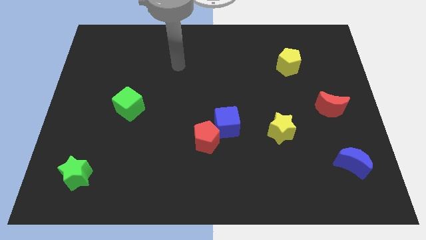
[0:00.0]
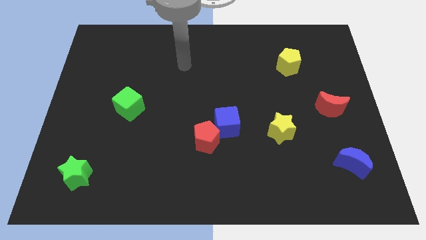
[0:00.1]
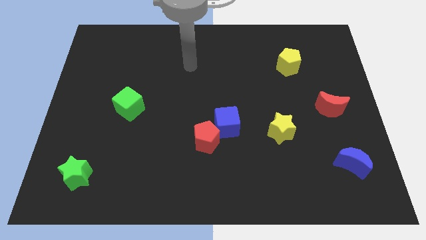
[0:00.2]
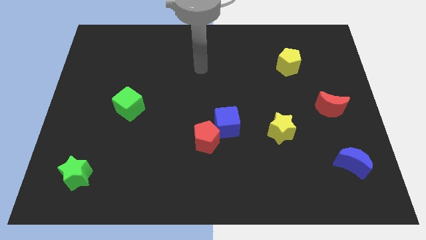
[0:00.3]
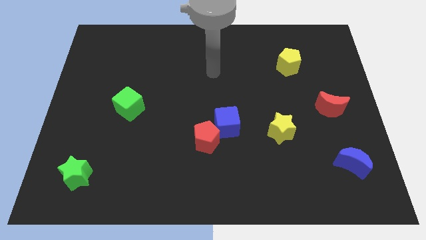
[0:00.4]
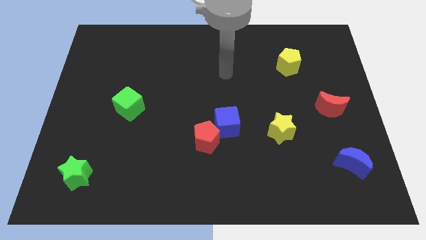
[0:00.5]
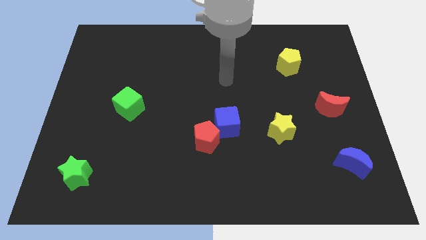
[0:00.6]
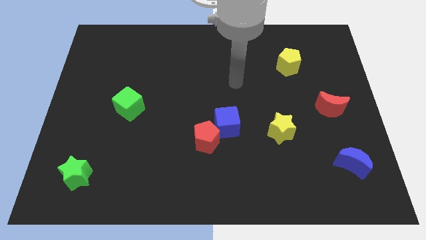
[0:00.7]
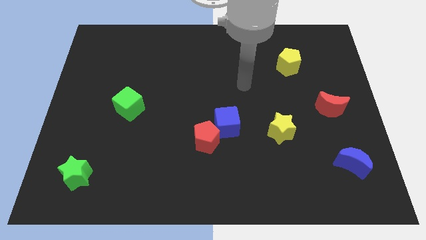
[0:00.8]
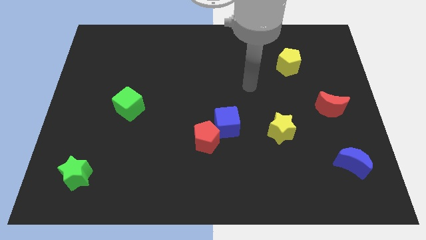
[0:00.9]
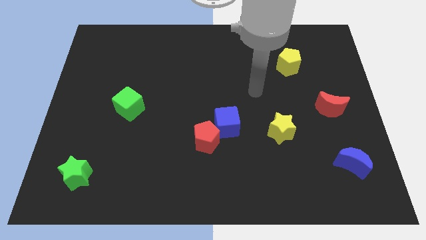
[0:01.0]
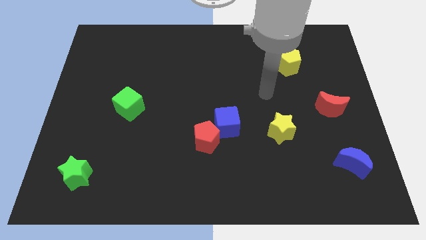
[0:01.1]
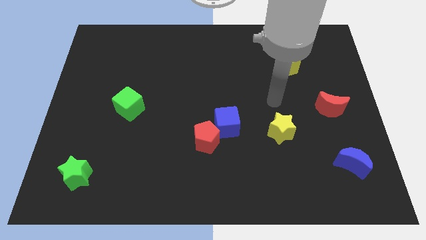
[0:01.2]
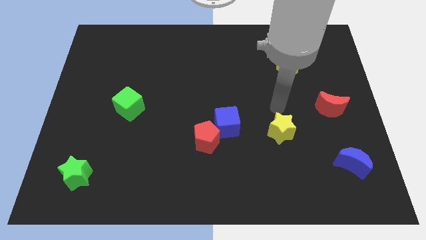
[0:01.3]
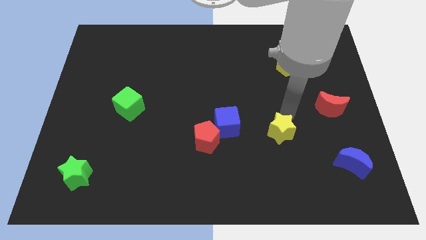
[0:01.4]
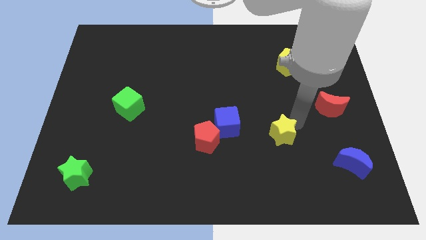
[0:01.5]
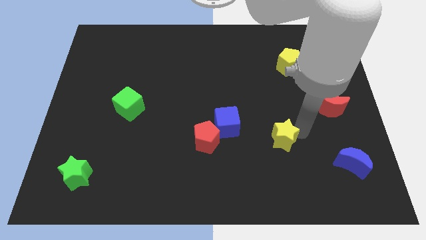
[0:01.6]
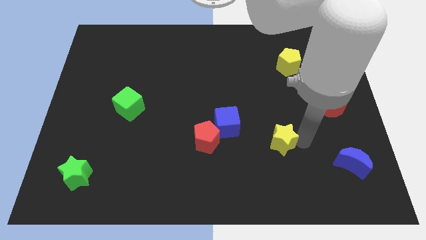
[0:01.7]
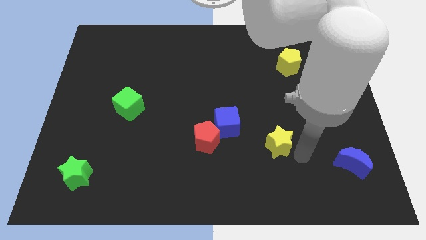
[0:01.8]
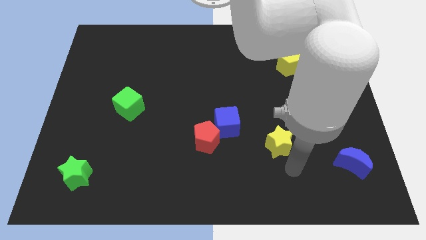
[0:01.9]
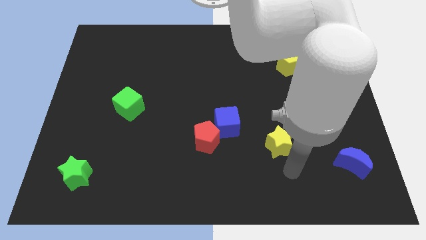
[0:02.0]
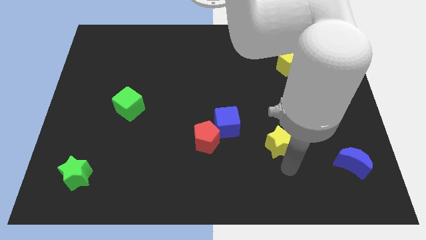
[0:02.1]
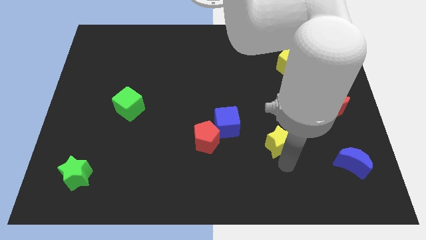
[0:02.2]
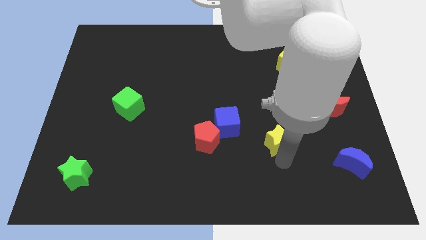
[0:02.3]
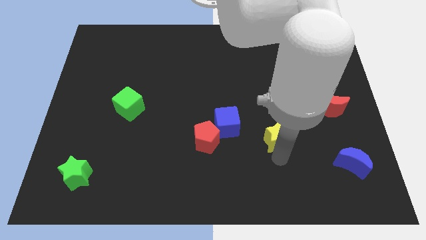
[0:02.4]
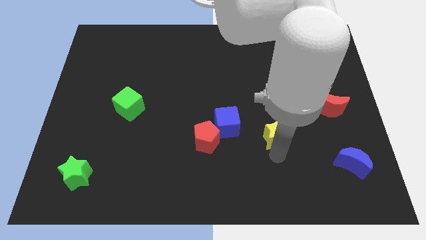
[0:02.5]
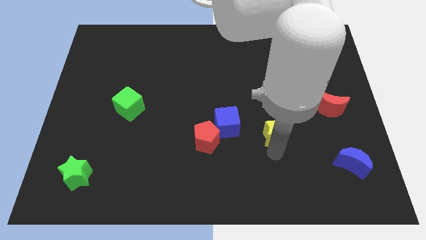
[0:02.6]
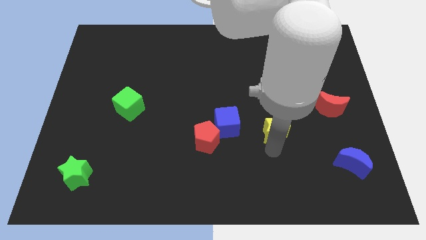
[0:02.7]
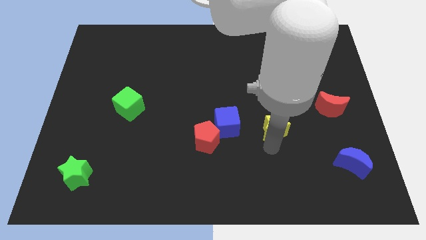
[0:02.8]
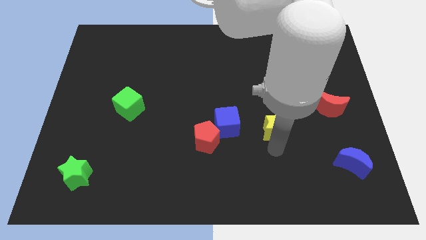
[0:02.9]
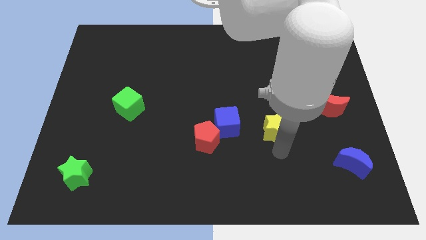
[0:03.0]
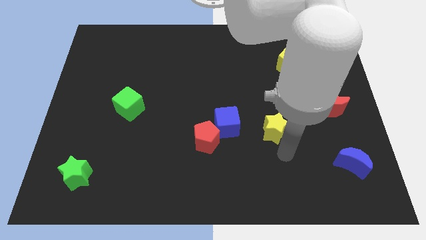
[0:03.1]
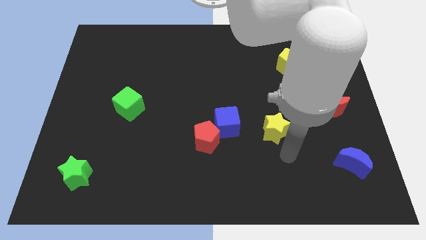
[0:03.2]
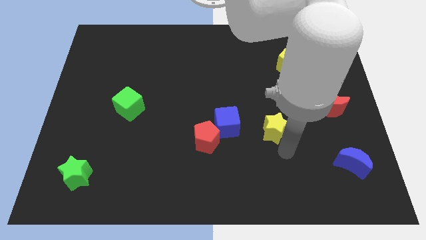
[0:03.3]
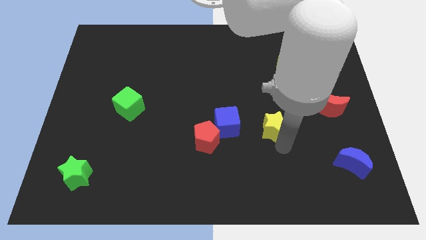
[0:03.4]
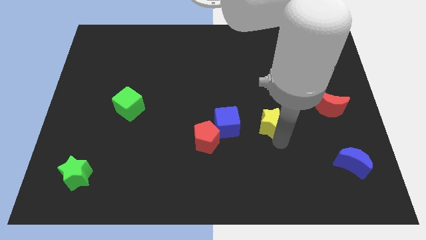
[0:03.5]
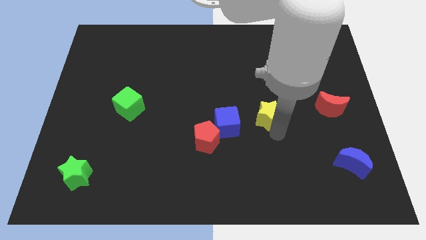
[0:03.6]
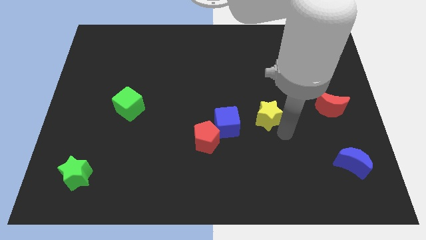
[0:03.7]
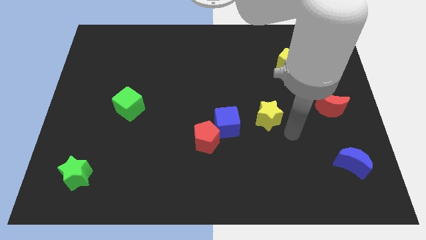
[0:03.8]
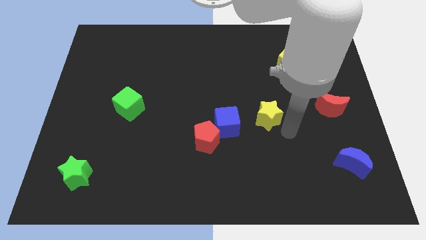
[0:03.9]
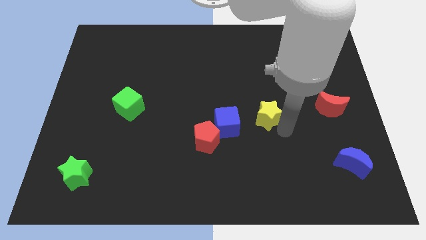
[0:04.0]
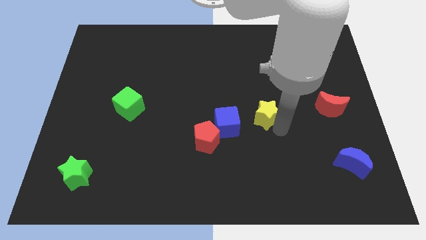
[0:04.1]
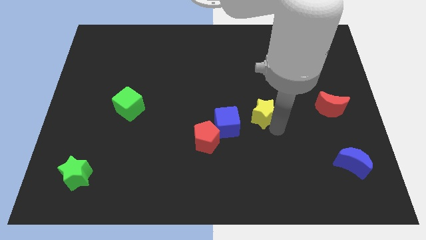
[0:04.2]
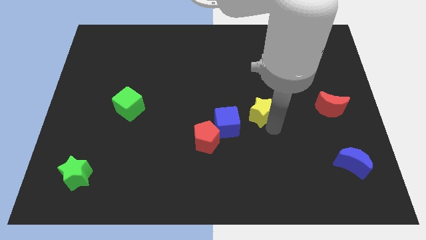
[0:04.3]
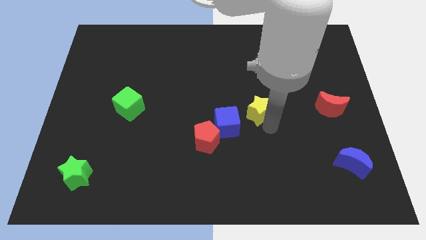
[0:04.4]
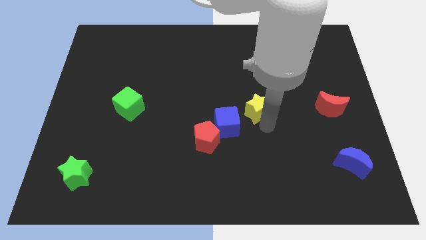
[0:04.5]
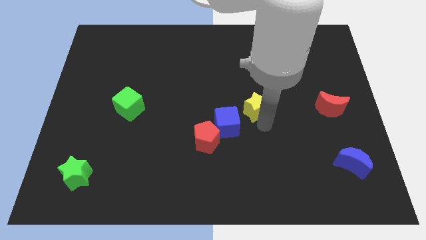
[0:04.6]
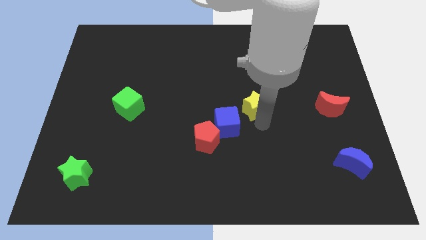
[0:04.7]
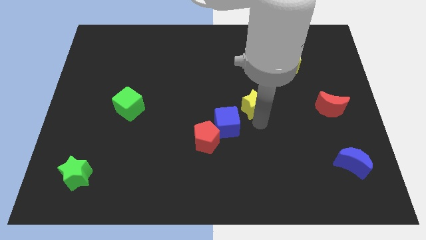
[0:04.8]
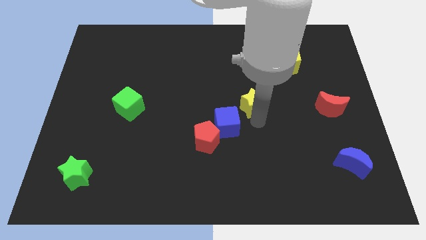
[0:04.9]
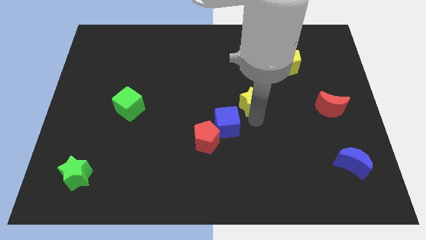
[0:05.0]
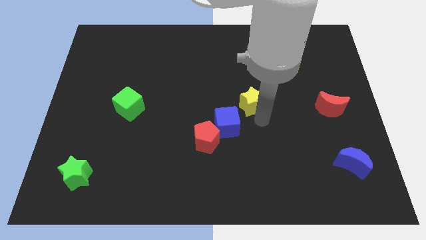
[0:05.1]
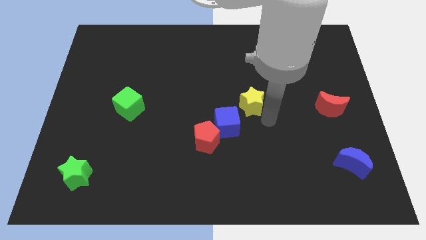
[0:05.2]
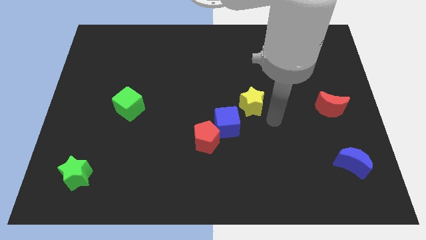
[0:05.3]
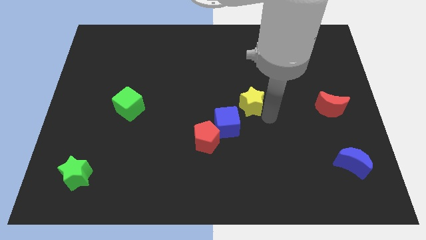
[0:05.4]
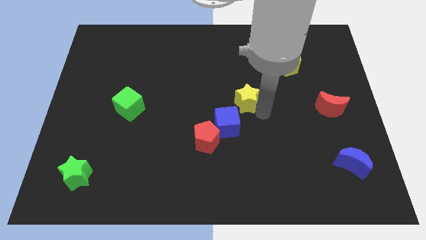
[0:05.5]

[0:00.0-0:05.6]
put the yellow star to the top of the blue cube

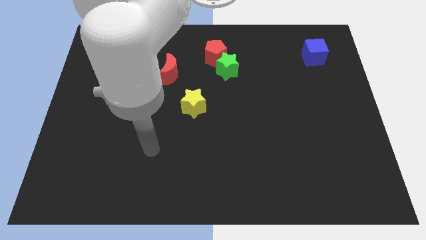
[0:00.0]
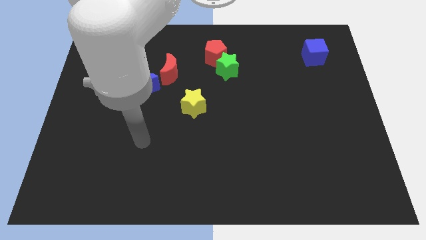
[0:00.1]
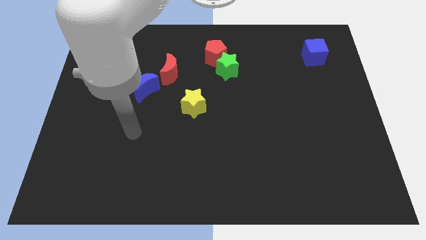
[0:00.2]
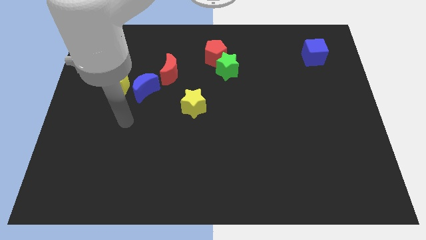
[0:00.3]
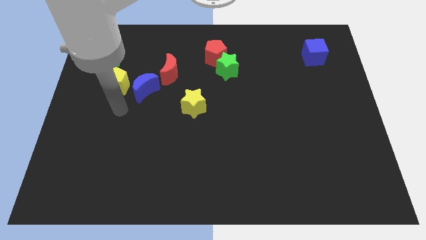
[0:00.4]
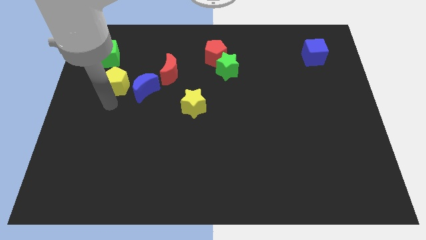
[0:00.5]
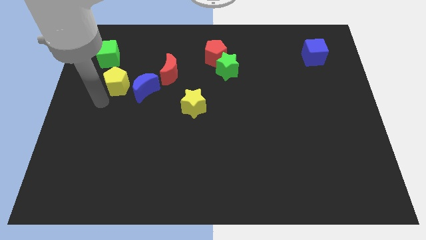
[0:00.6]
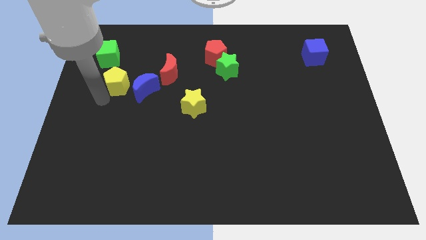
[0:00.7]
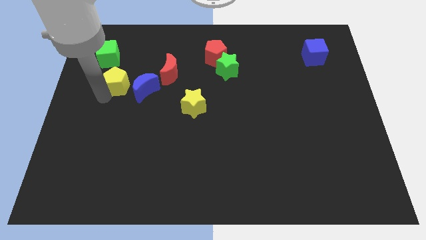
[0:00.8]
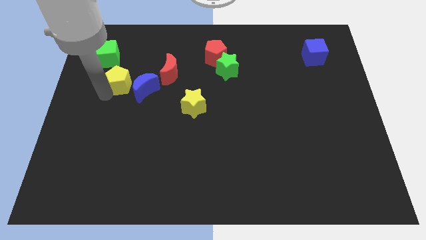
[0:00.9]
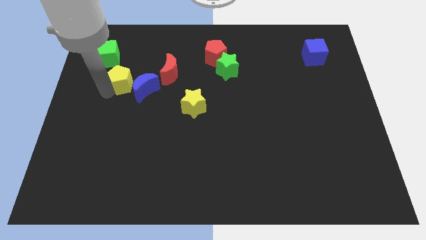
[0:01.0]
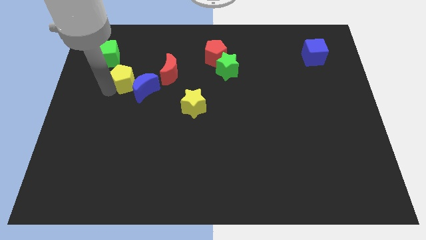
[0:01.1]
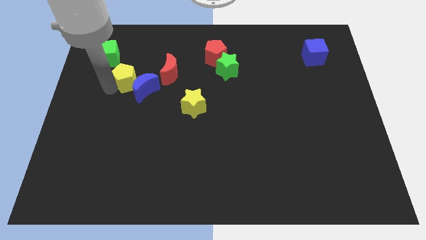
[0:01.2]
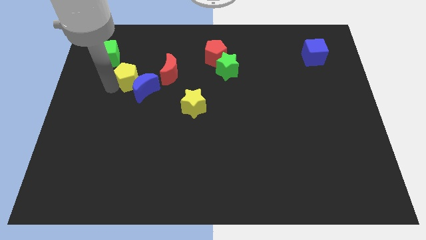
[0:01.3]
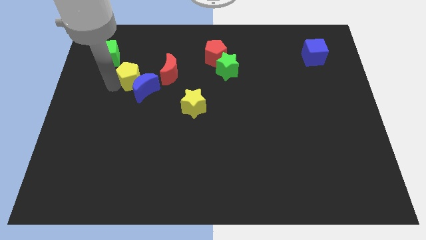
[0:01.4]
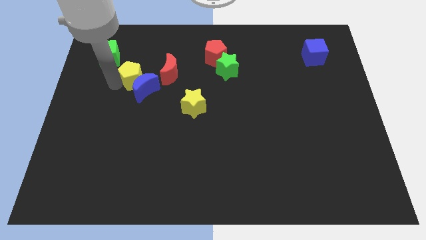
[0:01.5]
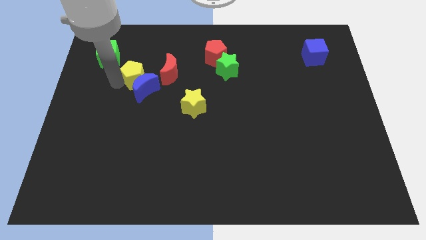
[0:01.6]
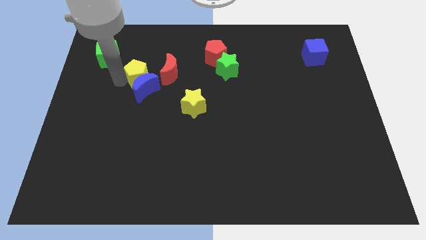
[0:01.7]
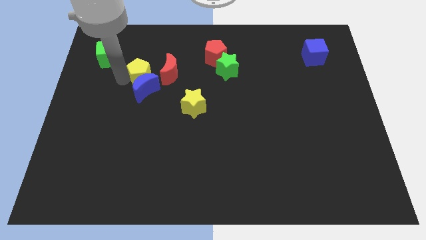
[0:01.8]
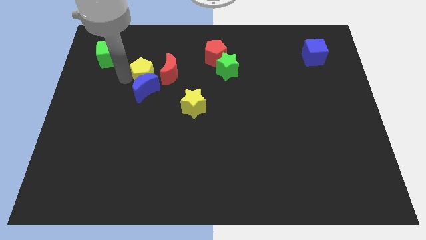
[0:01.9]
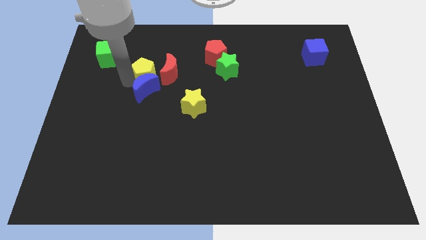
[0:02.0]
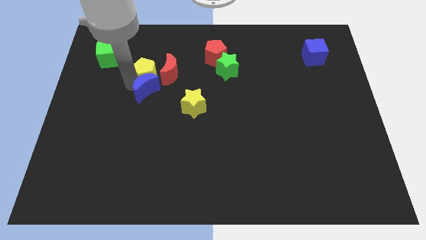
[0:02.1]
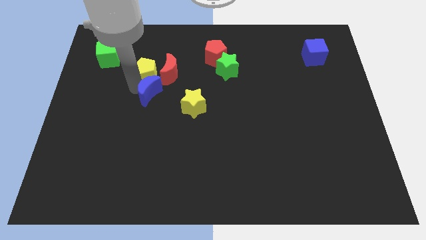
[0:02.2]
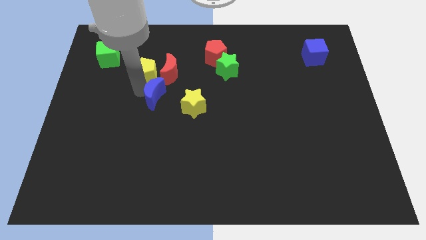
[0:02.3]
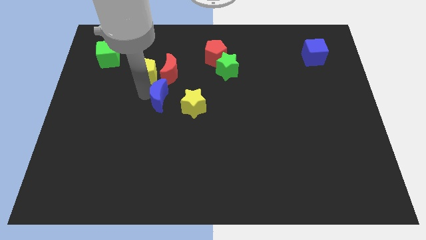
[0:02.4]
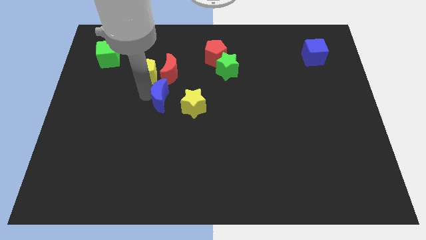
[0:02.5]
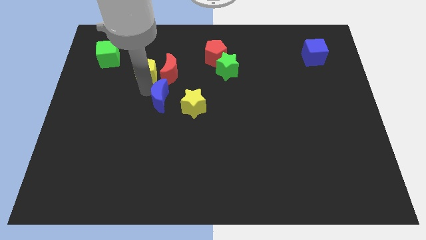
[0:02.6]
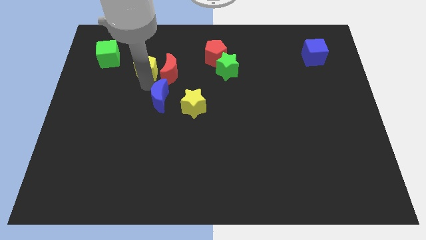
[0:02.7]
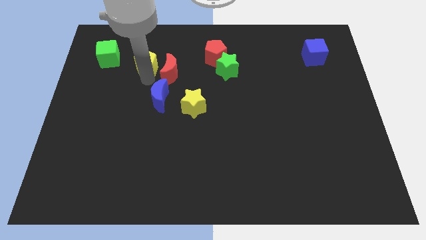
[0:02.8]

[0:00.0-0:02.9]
move the yellow pentagon just right of the green cube
